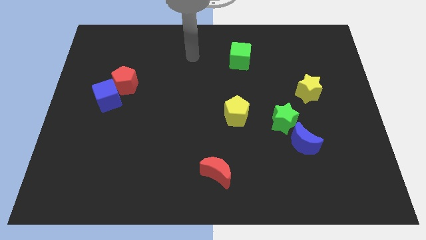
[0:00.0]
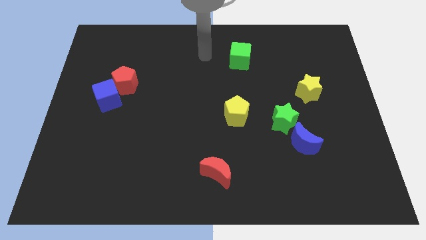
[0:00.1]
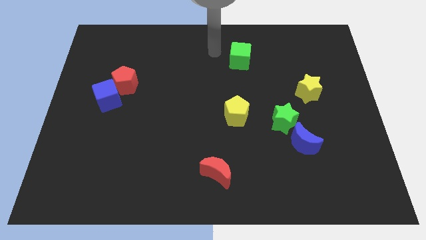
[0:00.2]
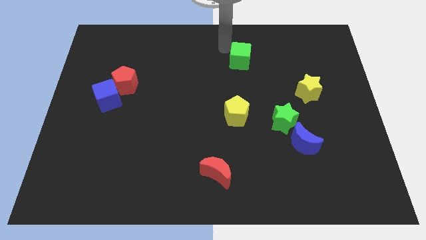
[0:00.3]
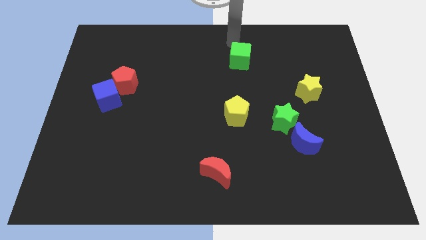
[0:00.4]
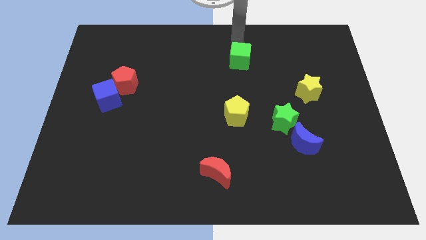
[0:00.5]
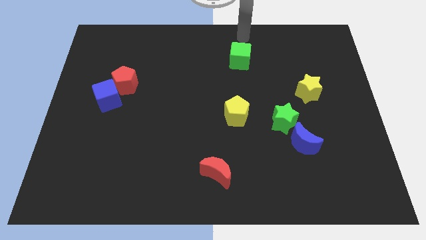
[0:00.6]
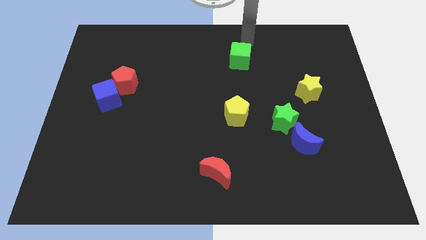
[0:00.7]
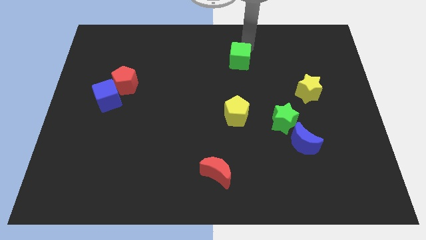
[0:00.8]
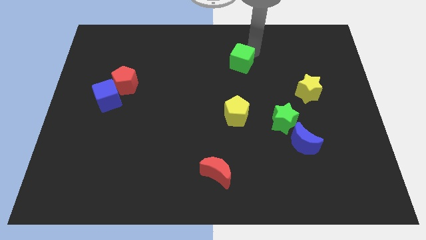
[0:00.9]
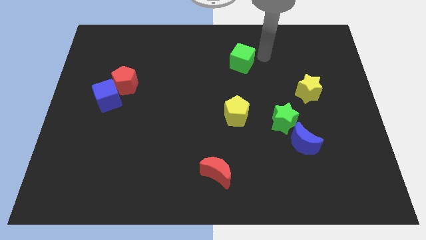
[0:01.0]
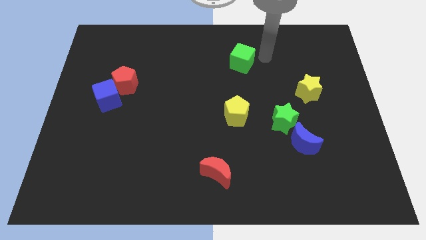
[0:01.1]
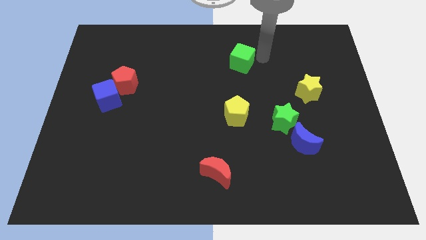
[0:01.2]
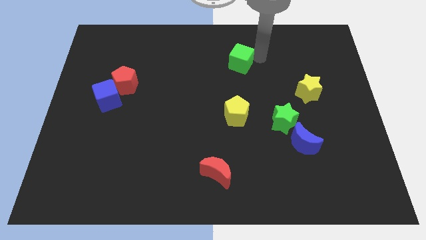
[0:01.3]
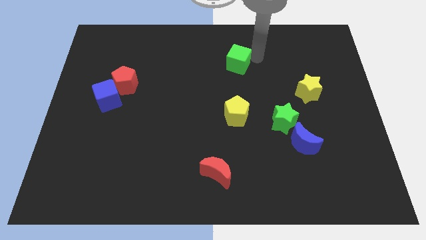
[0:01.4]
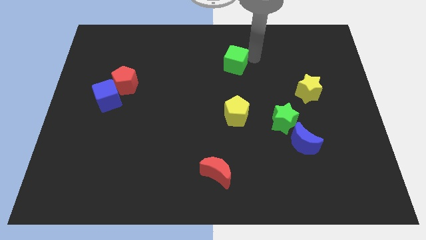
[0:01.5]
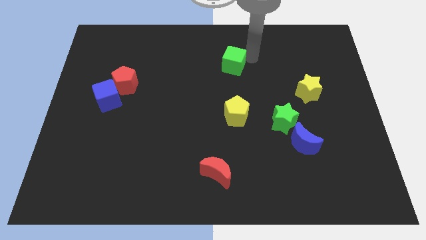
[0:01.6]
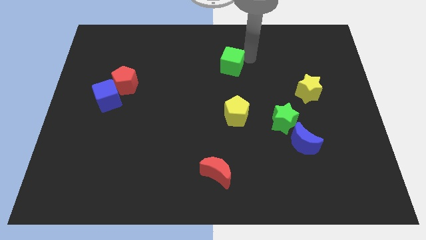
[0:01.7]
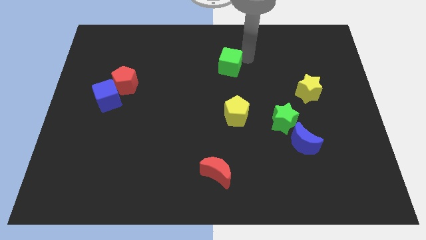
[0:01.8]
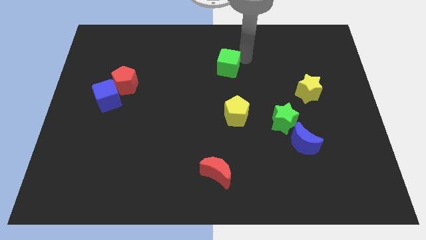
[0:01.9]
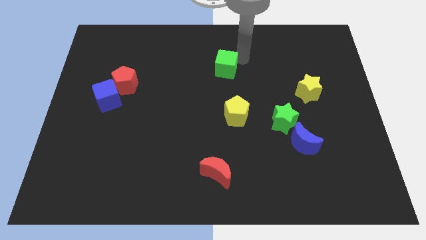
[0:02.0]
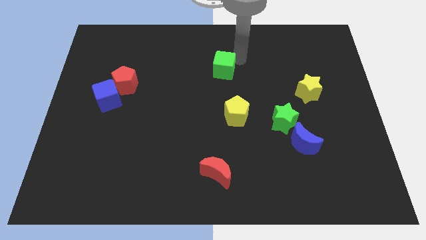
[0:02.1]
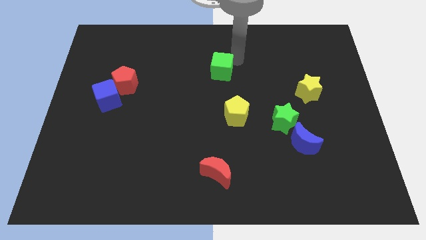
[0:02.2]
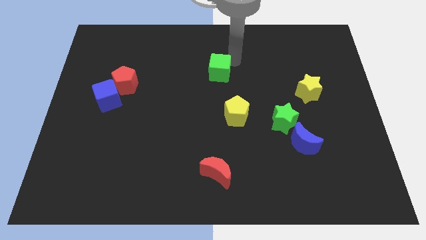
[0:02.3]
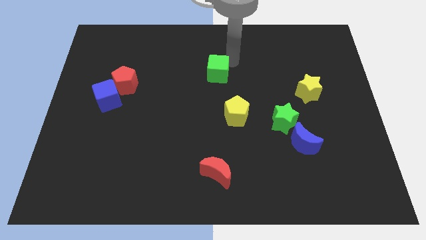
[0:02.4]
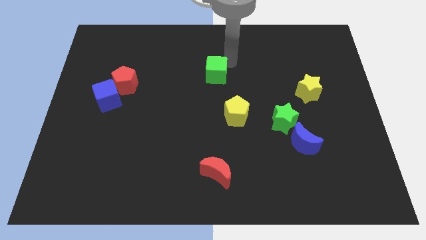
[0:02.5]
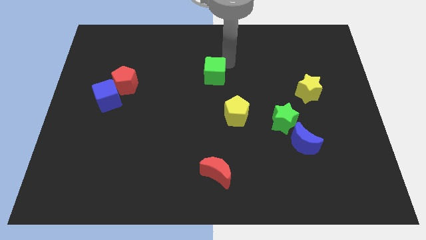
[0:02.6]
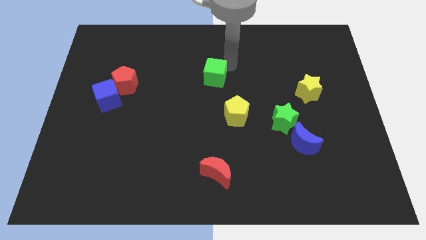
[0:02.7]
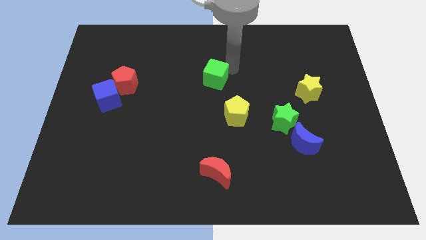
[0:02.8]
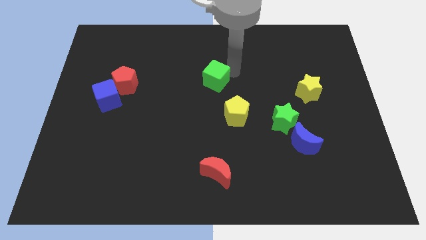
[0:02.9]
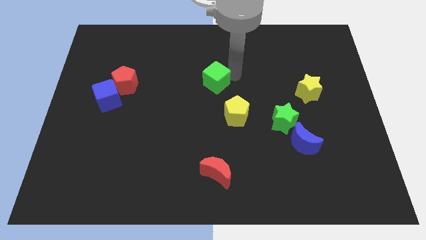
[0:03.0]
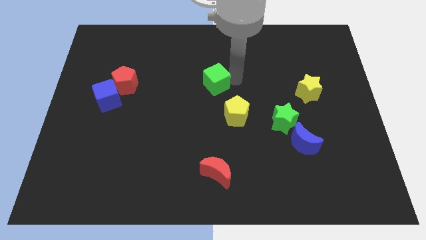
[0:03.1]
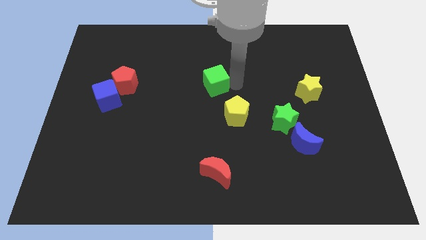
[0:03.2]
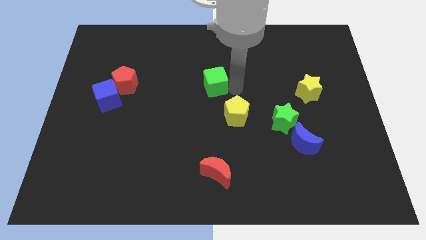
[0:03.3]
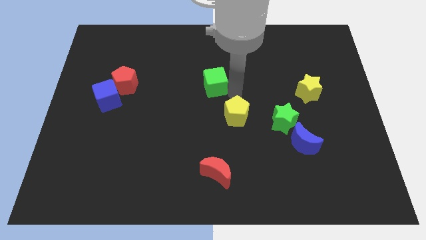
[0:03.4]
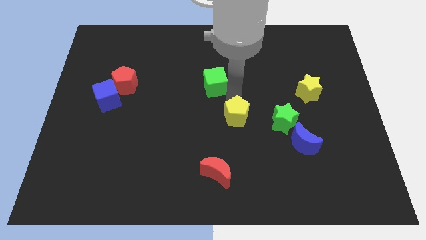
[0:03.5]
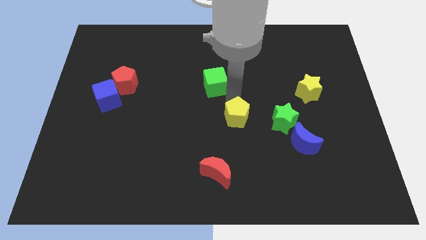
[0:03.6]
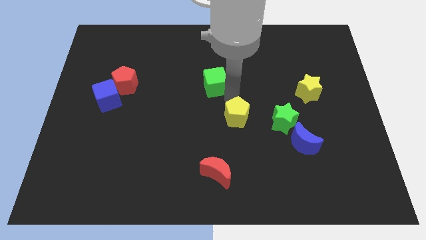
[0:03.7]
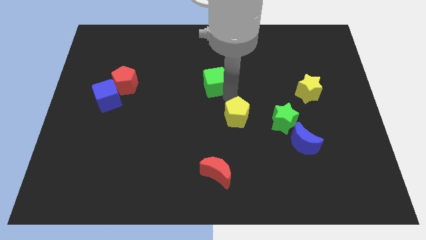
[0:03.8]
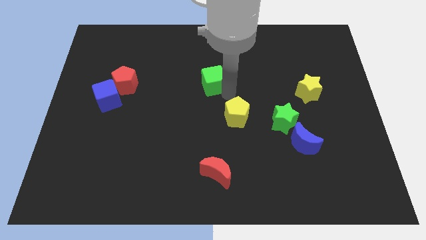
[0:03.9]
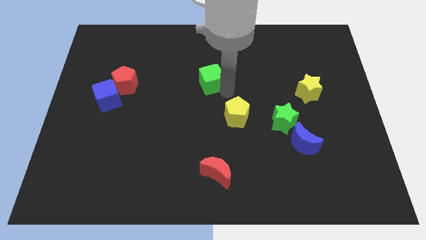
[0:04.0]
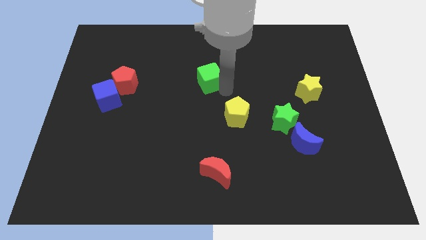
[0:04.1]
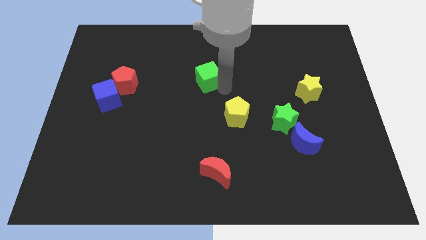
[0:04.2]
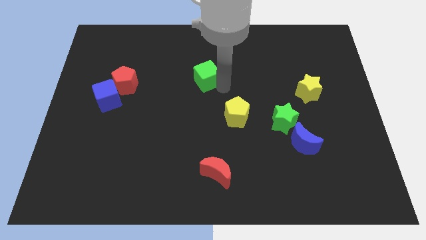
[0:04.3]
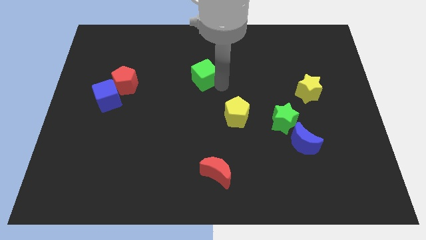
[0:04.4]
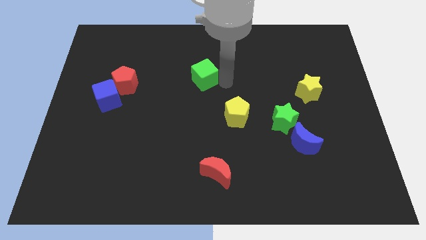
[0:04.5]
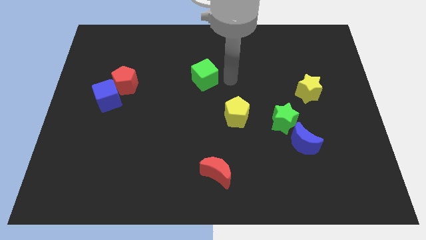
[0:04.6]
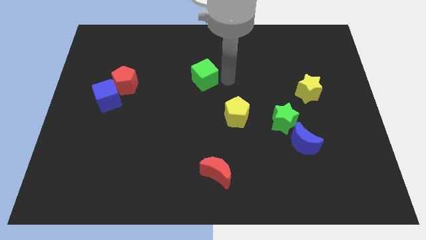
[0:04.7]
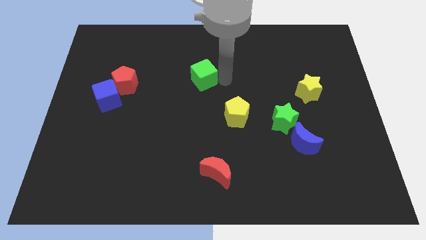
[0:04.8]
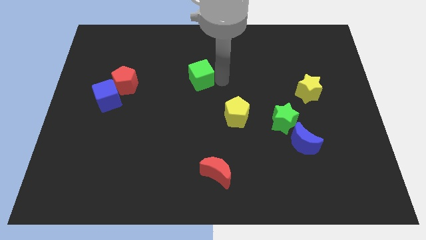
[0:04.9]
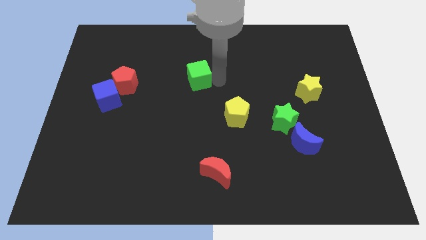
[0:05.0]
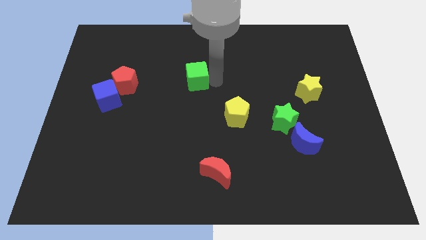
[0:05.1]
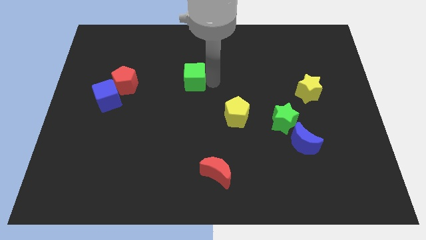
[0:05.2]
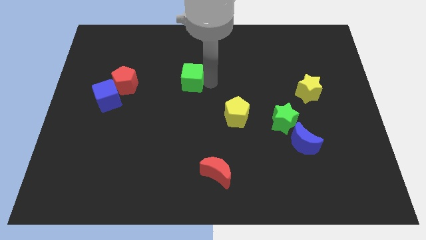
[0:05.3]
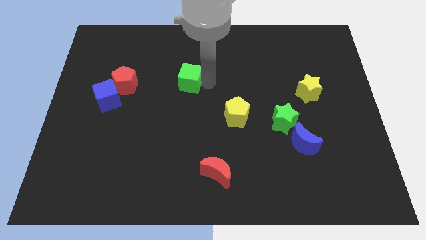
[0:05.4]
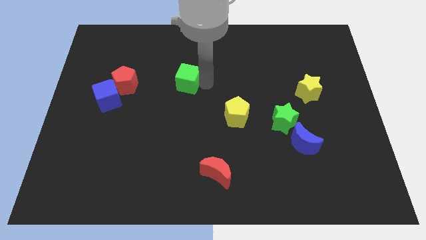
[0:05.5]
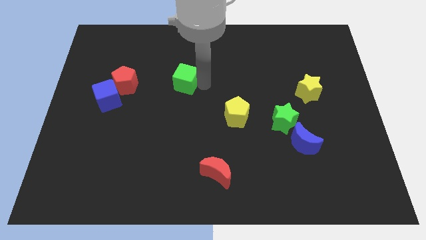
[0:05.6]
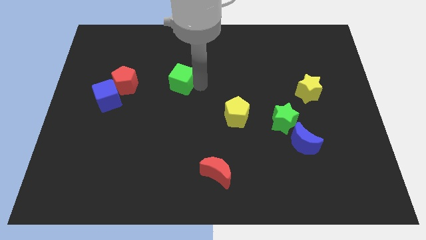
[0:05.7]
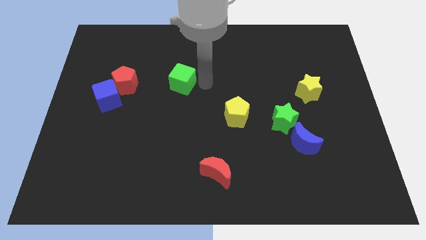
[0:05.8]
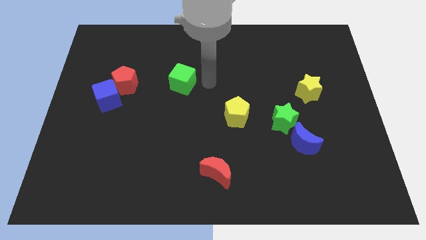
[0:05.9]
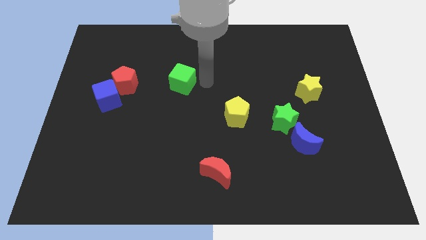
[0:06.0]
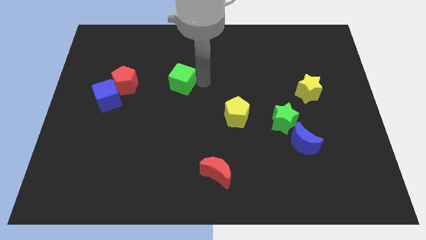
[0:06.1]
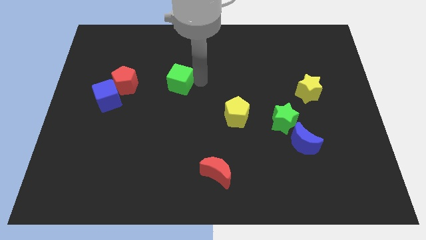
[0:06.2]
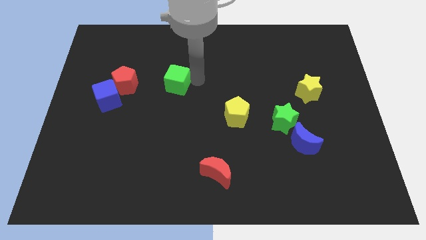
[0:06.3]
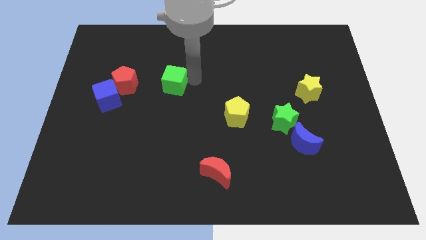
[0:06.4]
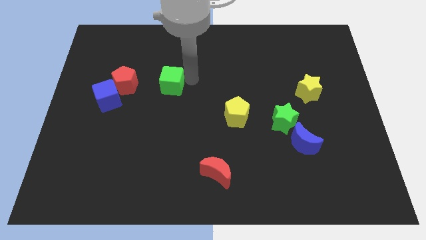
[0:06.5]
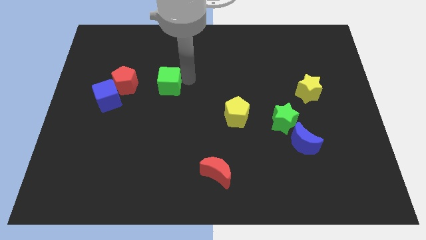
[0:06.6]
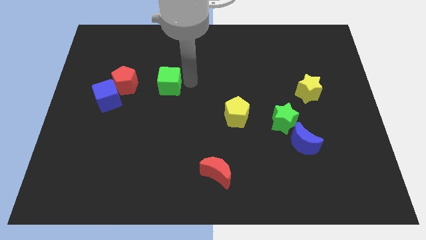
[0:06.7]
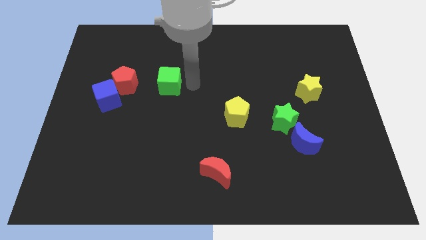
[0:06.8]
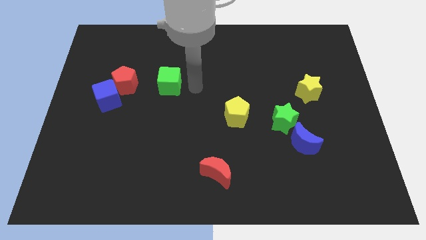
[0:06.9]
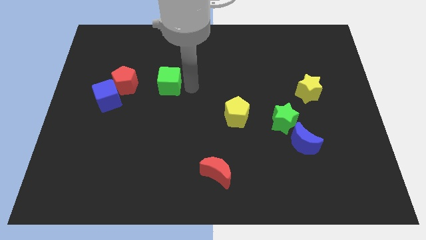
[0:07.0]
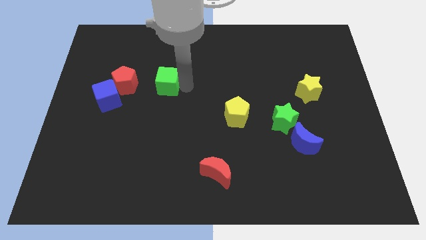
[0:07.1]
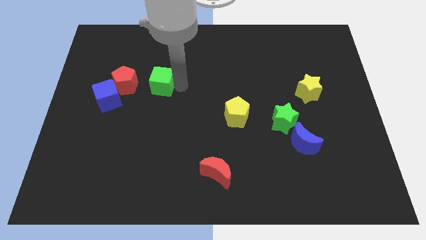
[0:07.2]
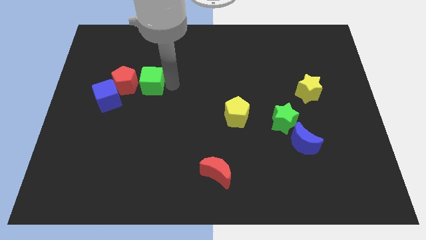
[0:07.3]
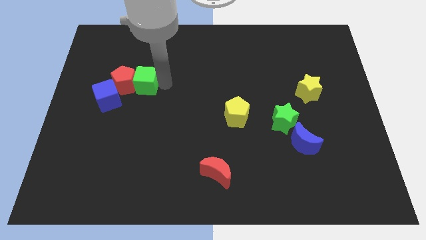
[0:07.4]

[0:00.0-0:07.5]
push the green cube towards the red pentagon

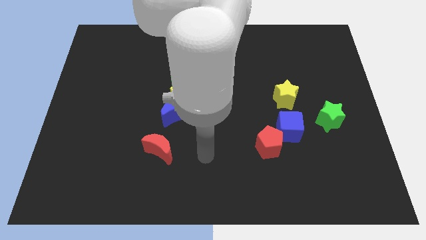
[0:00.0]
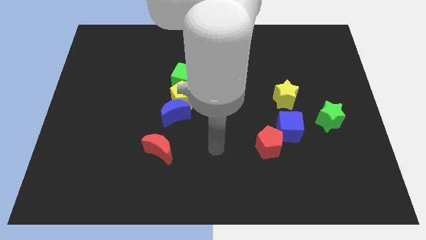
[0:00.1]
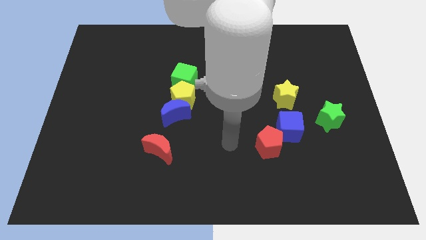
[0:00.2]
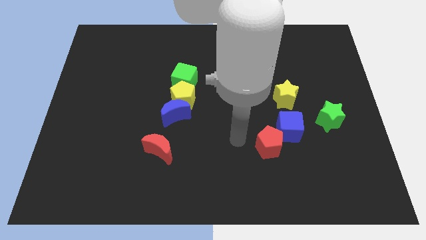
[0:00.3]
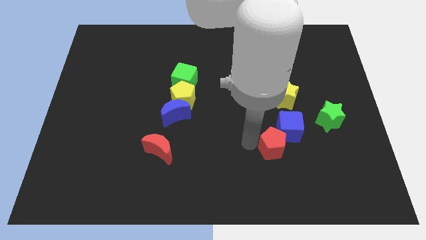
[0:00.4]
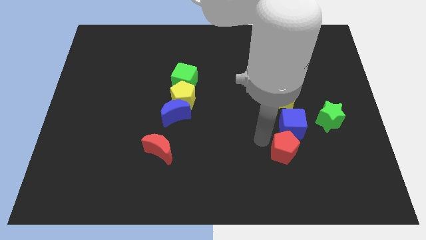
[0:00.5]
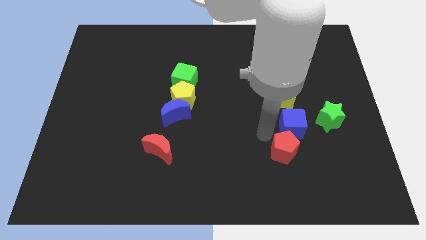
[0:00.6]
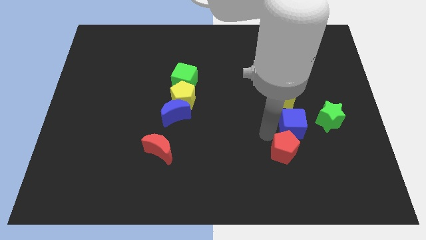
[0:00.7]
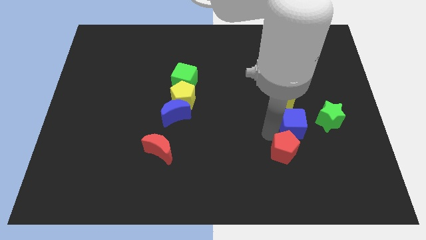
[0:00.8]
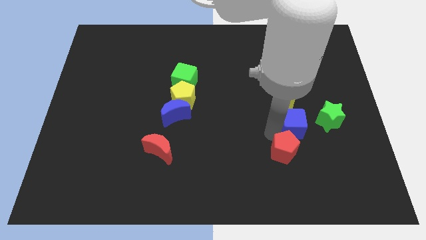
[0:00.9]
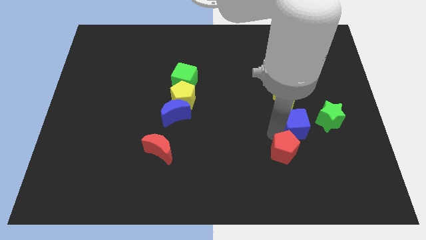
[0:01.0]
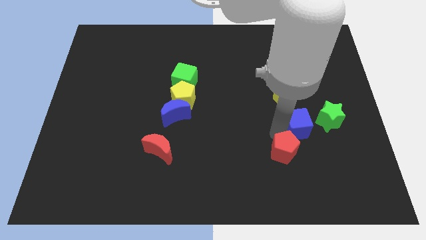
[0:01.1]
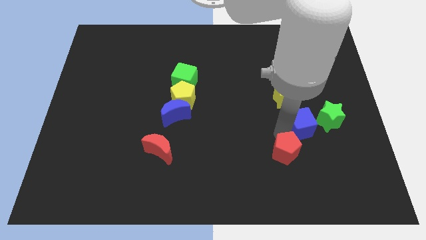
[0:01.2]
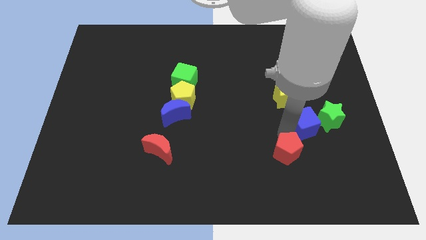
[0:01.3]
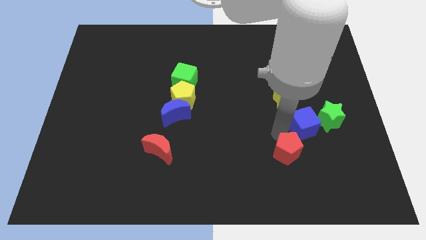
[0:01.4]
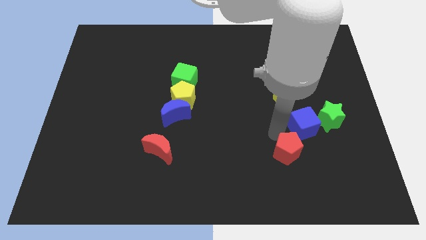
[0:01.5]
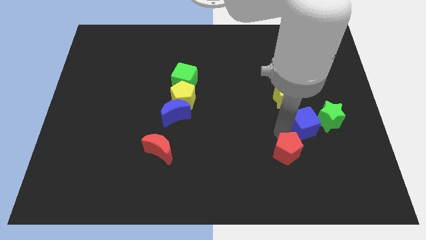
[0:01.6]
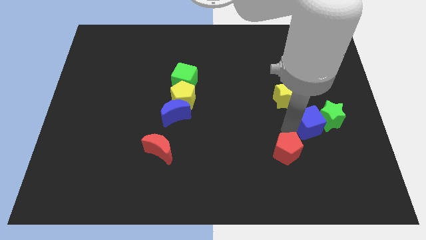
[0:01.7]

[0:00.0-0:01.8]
slide the blue cube close to the green star
